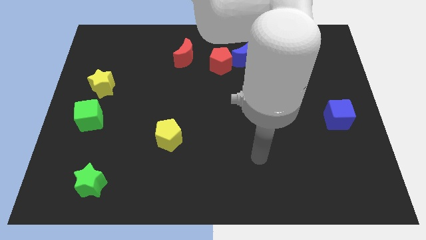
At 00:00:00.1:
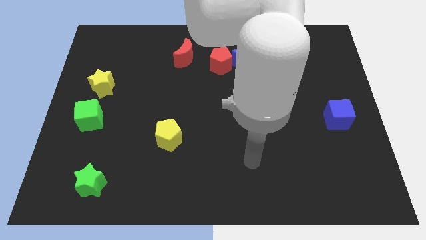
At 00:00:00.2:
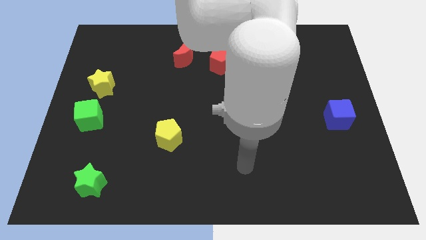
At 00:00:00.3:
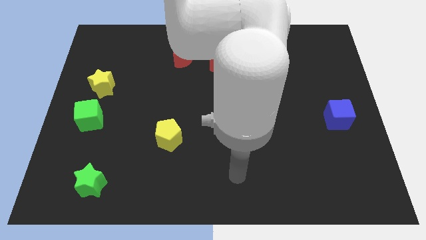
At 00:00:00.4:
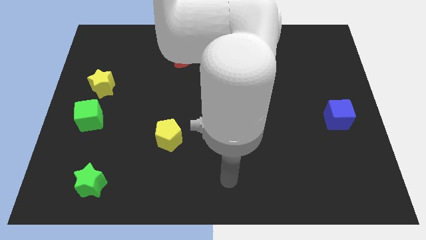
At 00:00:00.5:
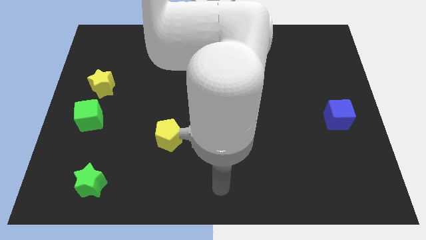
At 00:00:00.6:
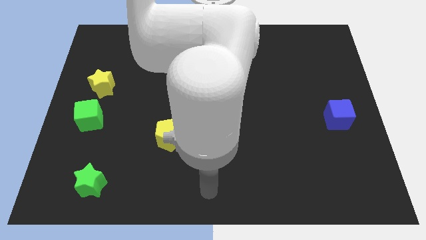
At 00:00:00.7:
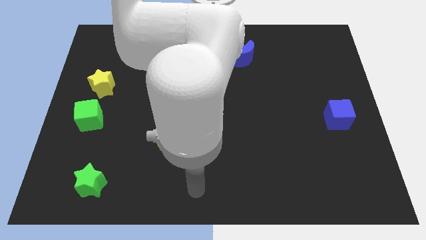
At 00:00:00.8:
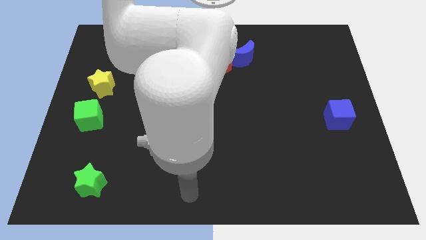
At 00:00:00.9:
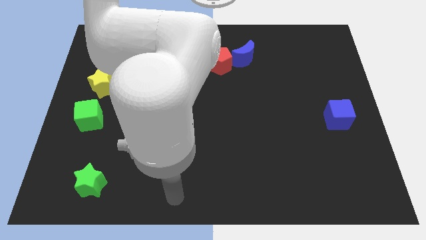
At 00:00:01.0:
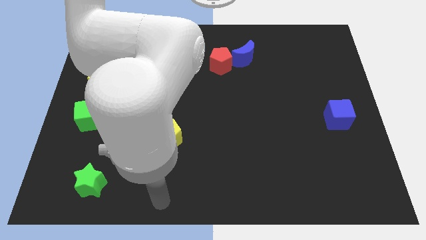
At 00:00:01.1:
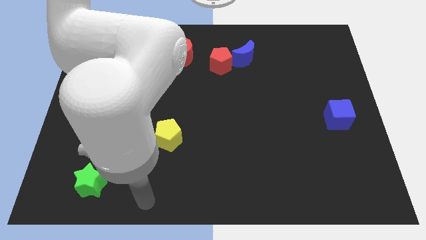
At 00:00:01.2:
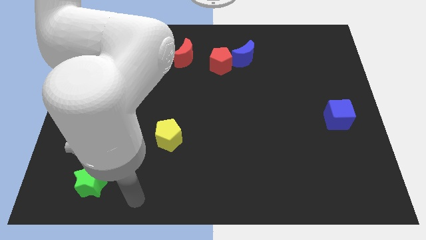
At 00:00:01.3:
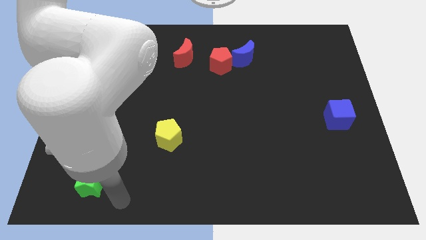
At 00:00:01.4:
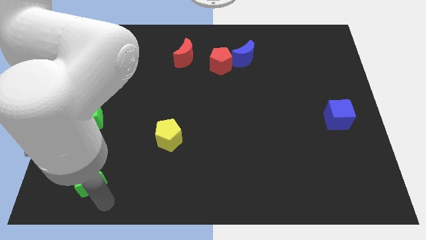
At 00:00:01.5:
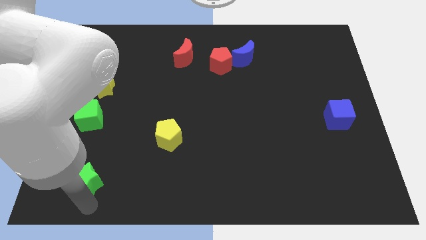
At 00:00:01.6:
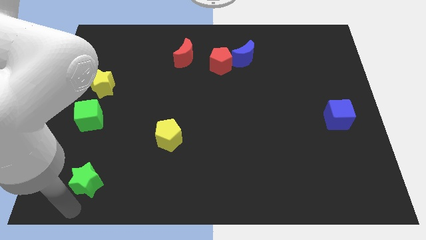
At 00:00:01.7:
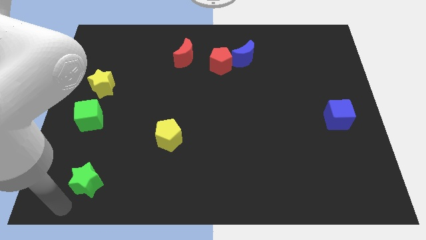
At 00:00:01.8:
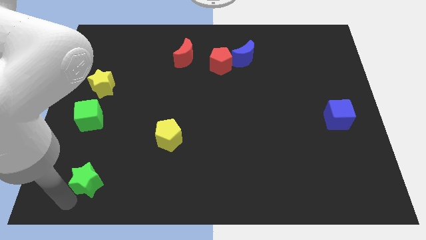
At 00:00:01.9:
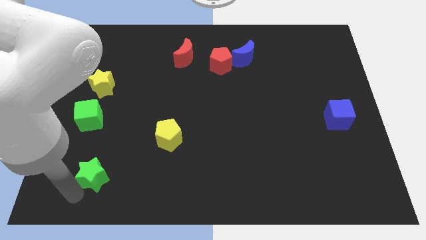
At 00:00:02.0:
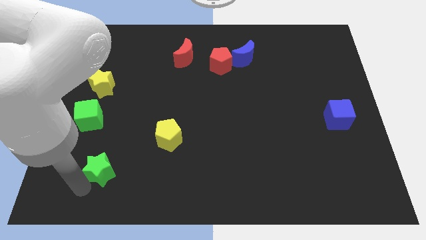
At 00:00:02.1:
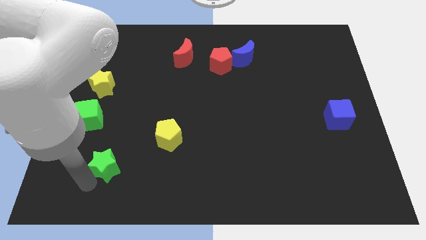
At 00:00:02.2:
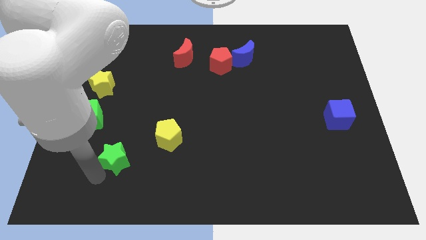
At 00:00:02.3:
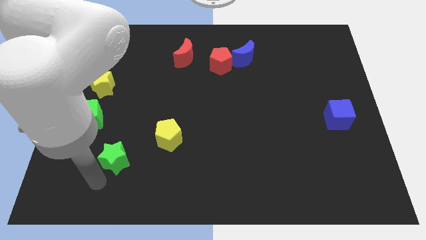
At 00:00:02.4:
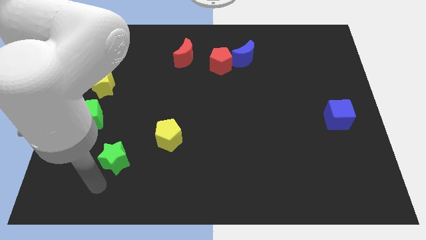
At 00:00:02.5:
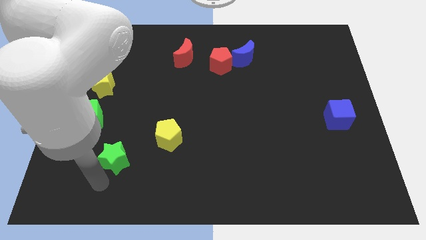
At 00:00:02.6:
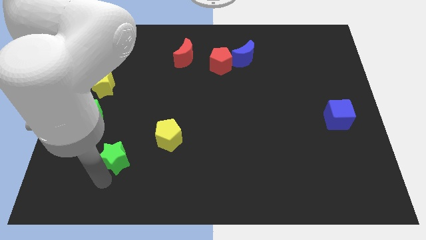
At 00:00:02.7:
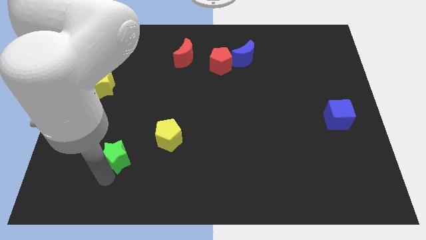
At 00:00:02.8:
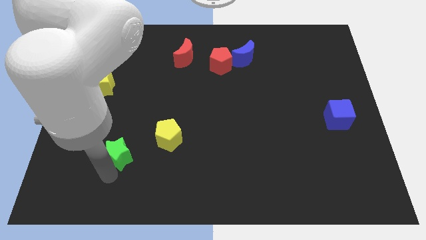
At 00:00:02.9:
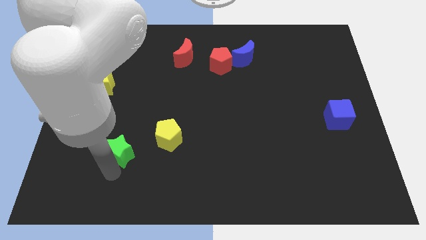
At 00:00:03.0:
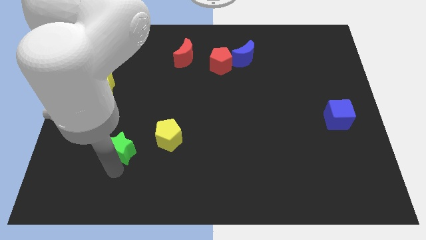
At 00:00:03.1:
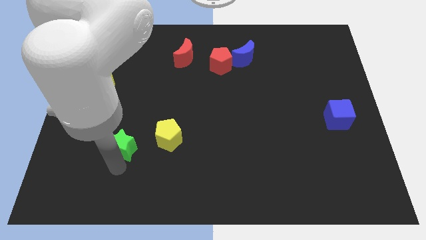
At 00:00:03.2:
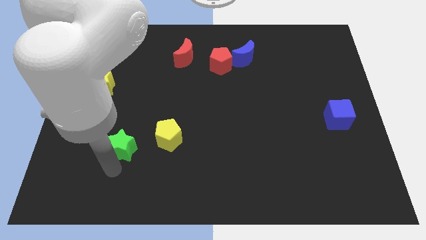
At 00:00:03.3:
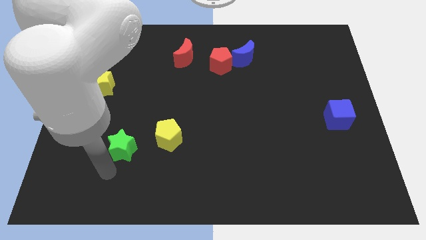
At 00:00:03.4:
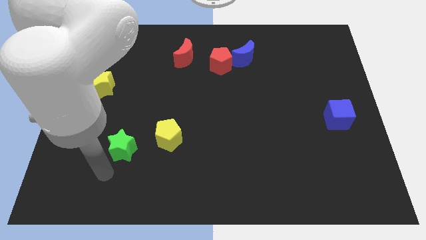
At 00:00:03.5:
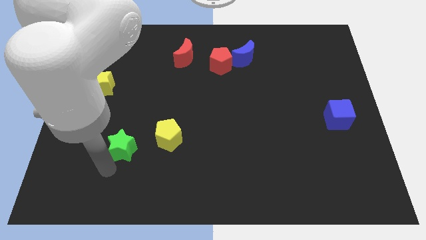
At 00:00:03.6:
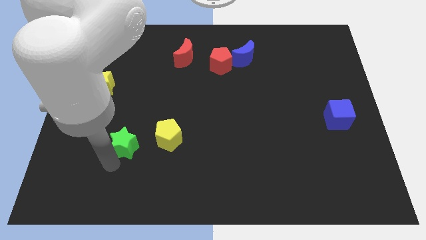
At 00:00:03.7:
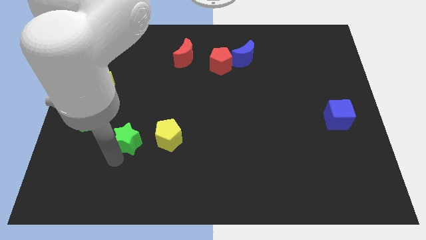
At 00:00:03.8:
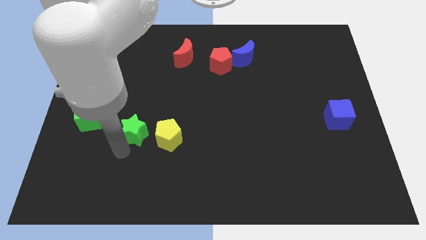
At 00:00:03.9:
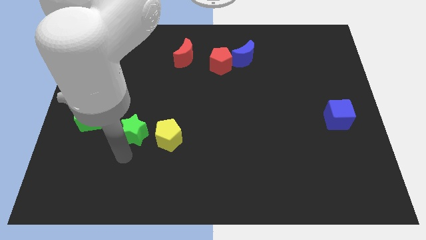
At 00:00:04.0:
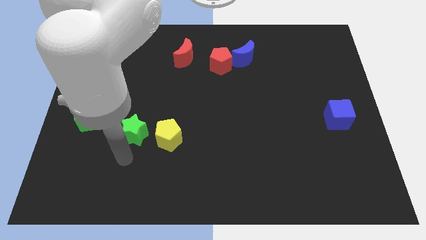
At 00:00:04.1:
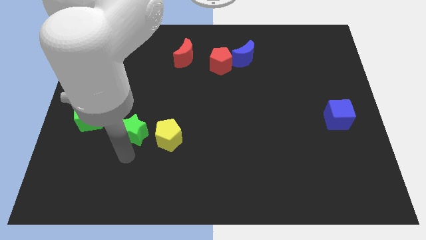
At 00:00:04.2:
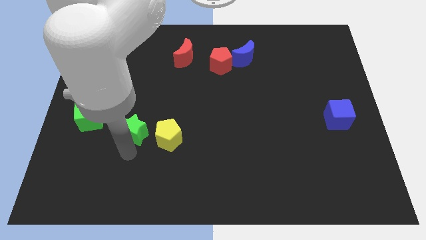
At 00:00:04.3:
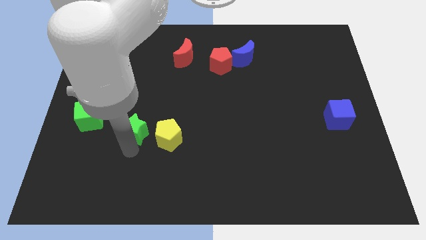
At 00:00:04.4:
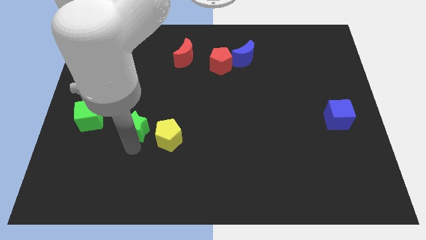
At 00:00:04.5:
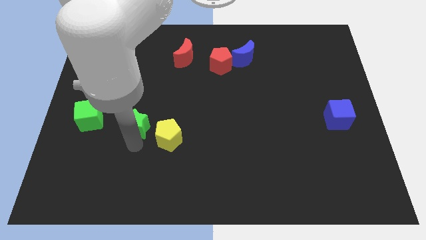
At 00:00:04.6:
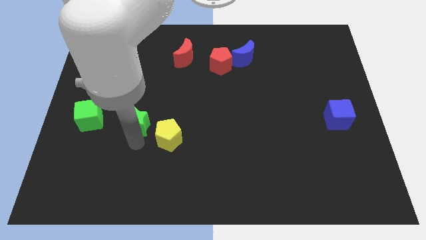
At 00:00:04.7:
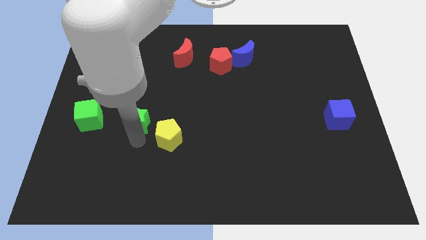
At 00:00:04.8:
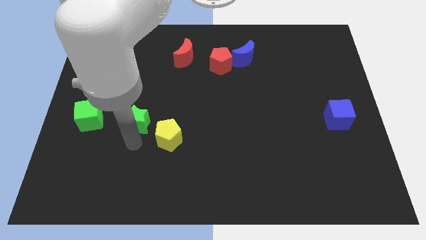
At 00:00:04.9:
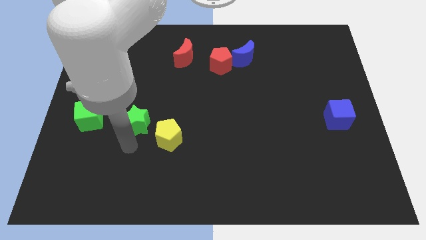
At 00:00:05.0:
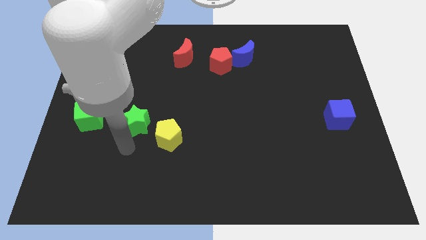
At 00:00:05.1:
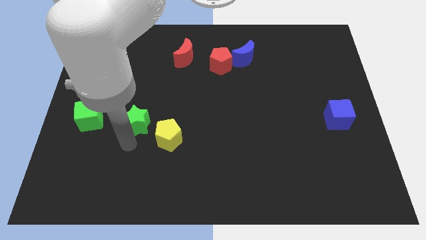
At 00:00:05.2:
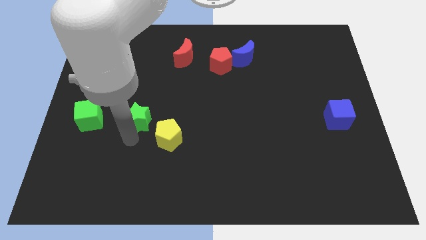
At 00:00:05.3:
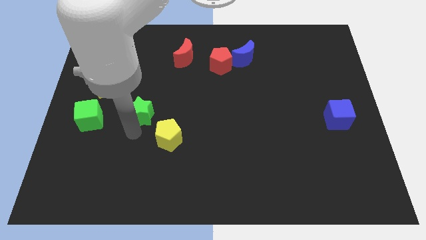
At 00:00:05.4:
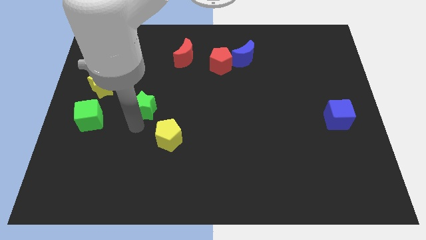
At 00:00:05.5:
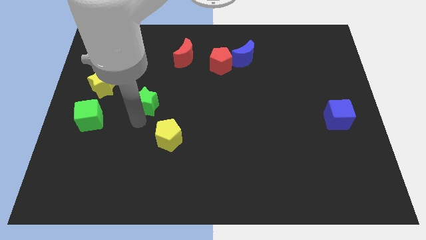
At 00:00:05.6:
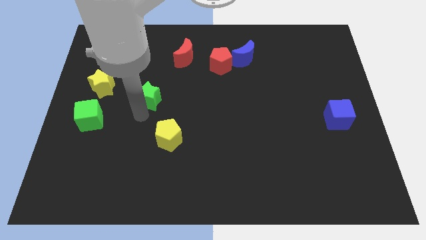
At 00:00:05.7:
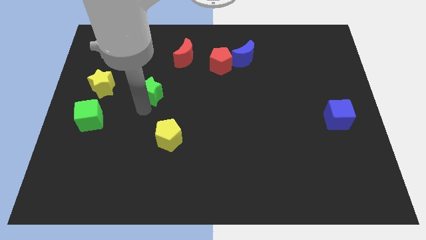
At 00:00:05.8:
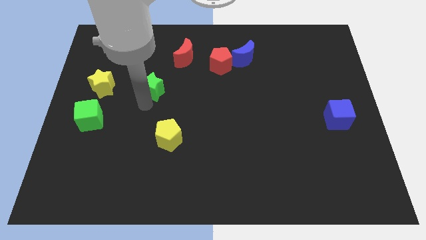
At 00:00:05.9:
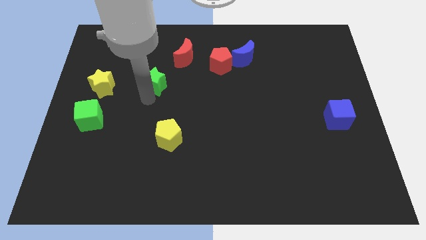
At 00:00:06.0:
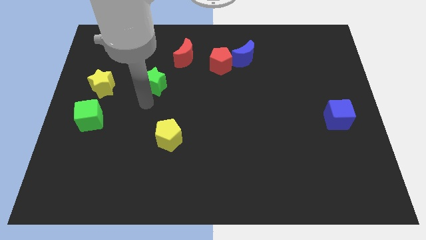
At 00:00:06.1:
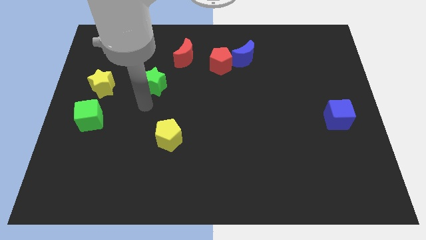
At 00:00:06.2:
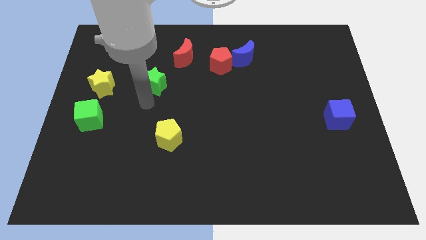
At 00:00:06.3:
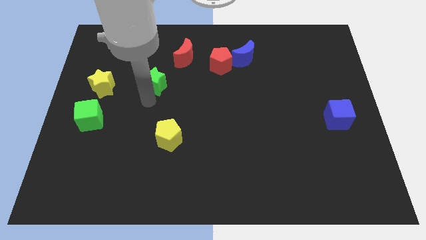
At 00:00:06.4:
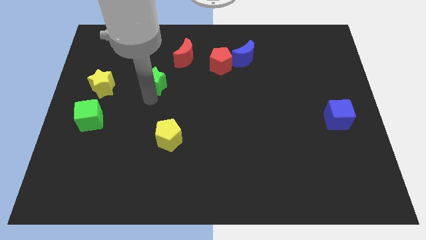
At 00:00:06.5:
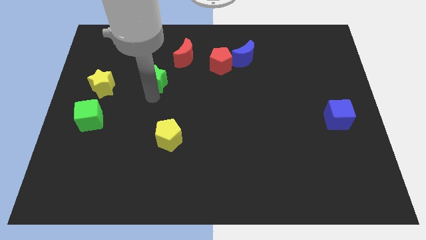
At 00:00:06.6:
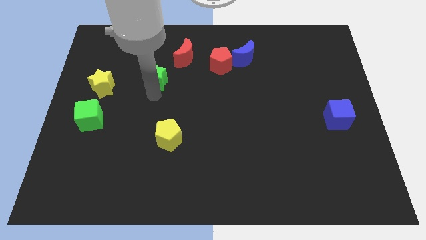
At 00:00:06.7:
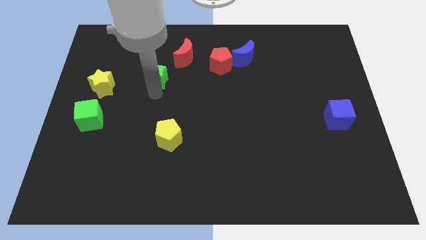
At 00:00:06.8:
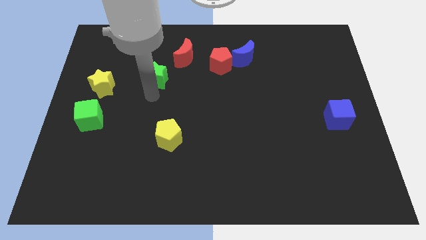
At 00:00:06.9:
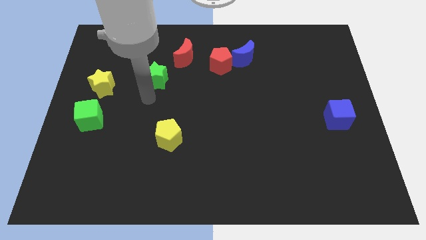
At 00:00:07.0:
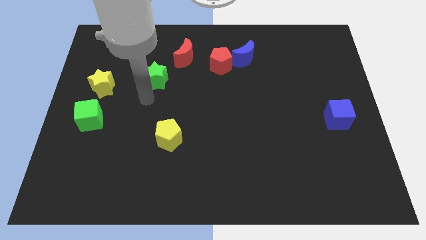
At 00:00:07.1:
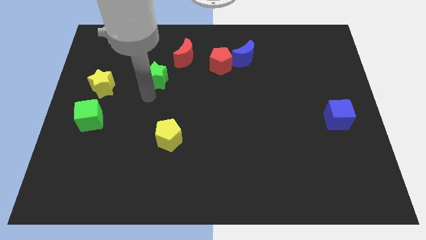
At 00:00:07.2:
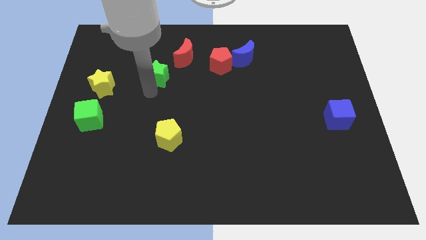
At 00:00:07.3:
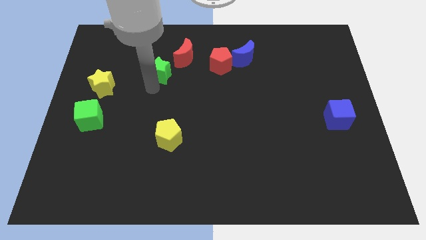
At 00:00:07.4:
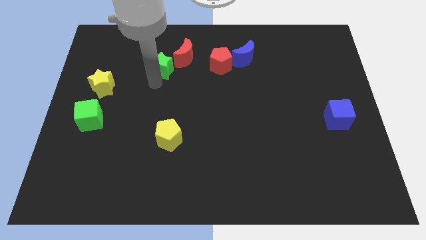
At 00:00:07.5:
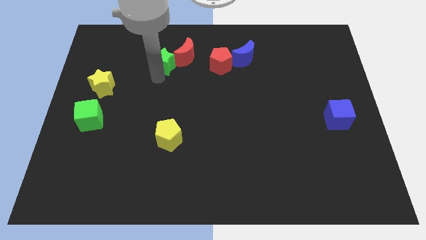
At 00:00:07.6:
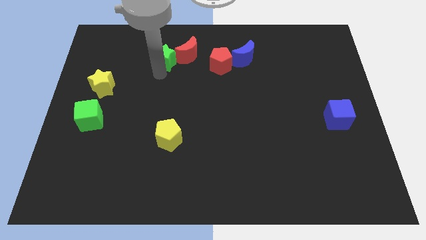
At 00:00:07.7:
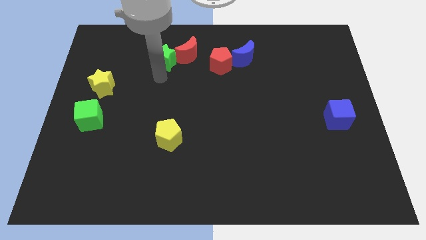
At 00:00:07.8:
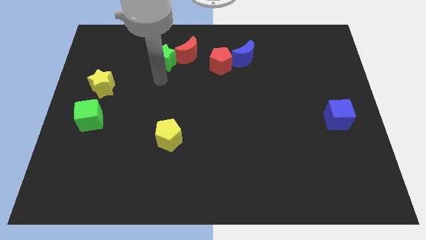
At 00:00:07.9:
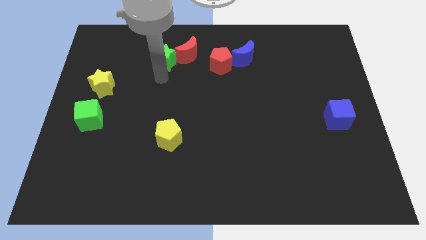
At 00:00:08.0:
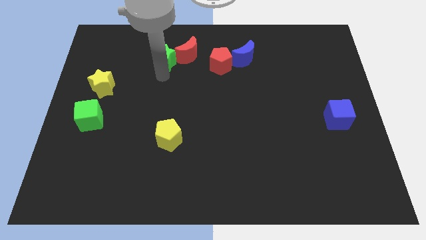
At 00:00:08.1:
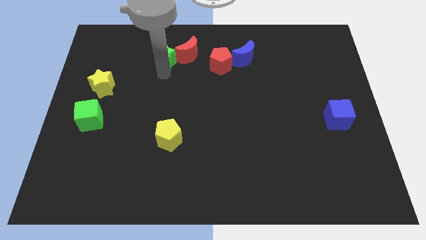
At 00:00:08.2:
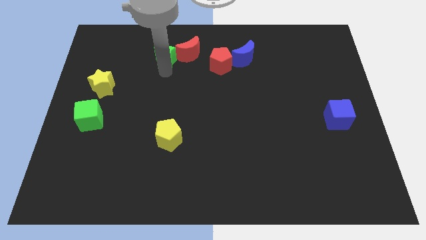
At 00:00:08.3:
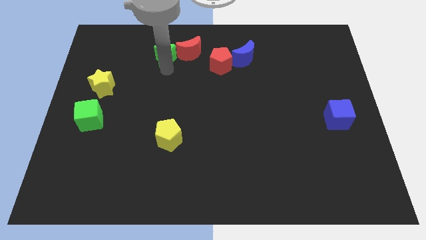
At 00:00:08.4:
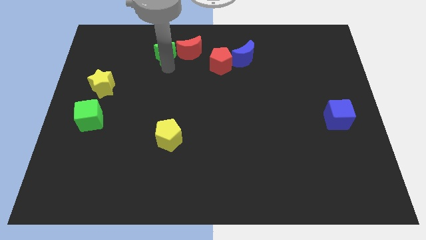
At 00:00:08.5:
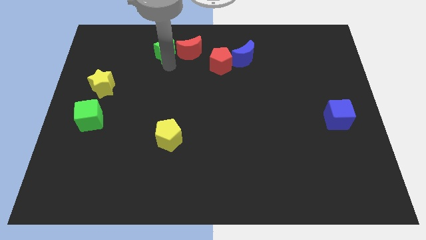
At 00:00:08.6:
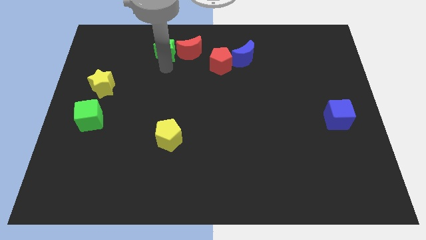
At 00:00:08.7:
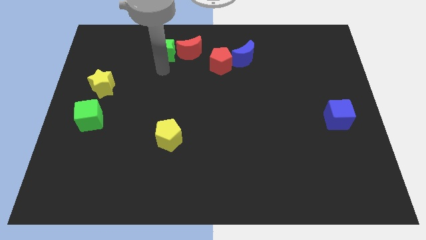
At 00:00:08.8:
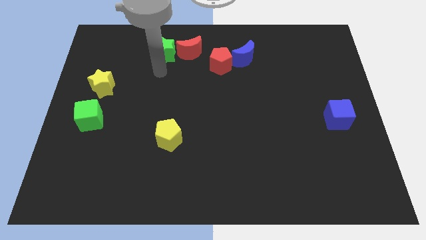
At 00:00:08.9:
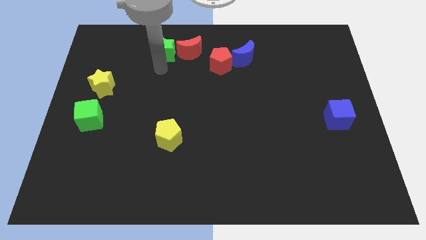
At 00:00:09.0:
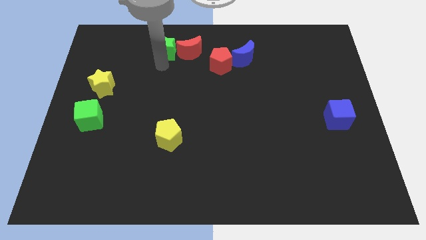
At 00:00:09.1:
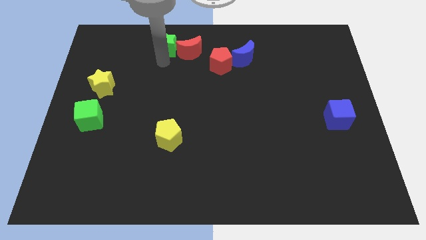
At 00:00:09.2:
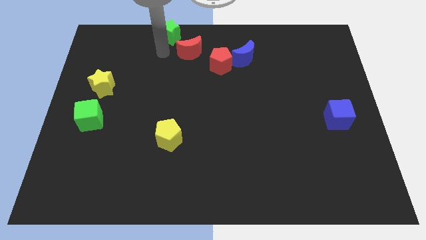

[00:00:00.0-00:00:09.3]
slide the green star to the top side
